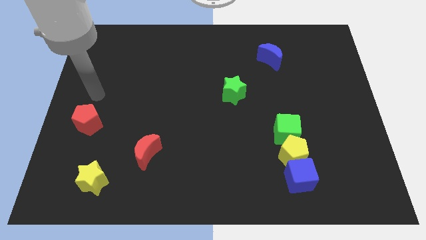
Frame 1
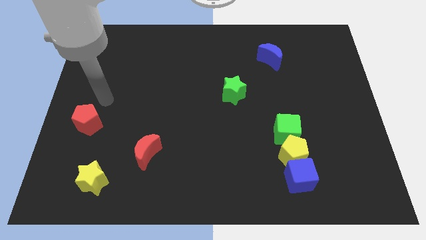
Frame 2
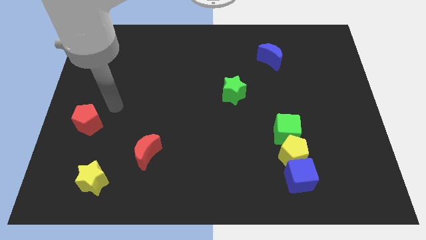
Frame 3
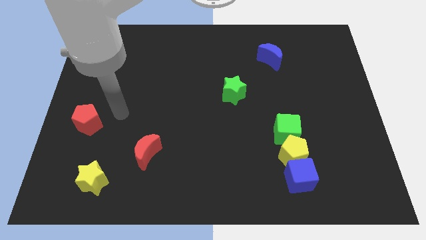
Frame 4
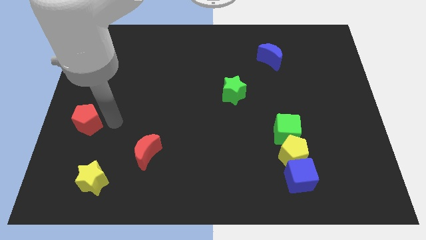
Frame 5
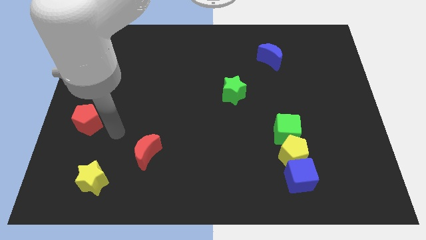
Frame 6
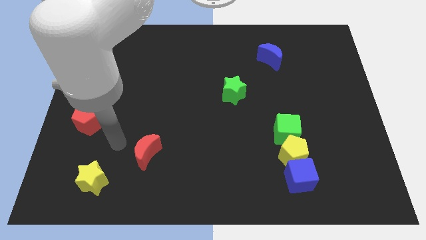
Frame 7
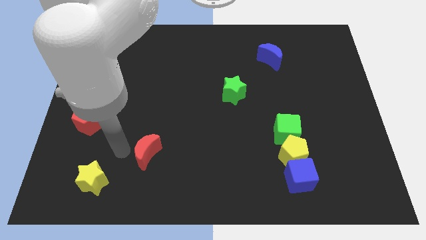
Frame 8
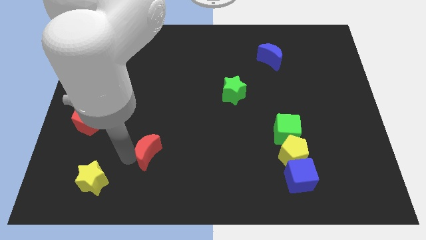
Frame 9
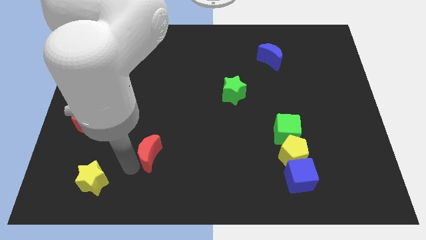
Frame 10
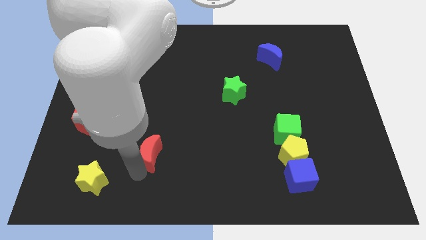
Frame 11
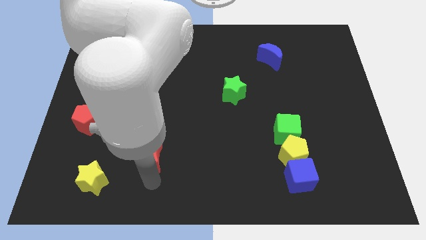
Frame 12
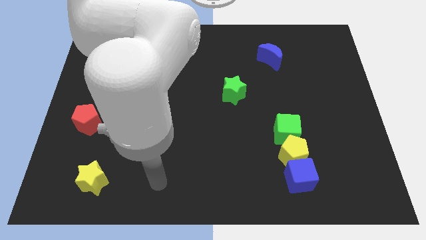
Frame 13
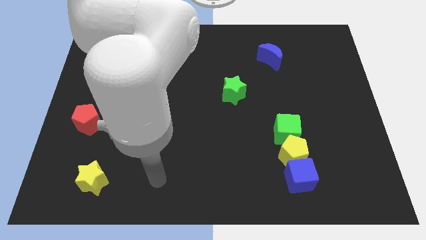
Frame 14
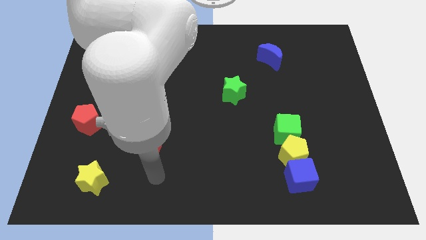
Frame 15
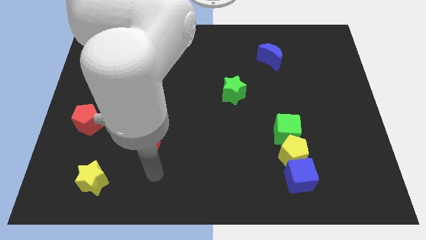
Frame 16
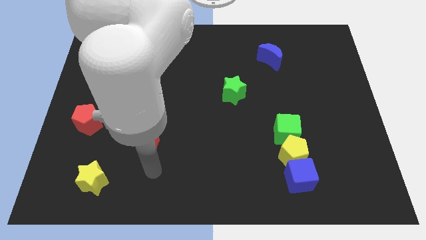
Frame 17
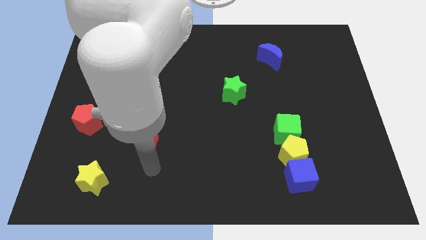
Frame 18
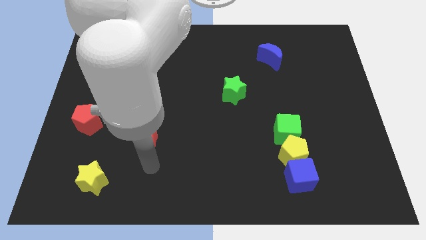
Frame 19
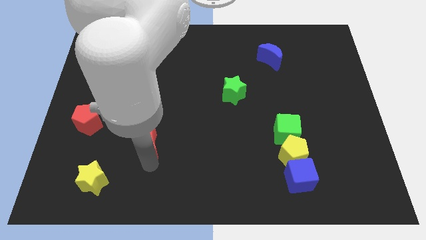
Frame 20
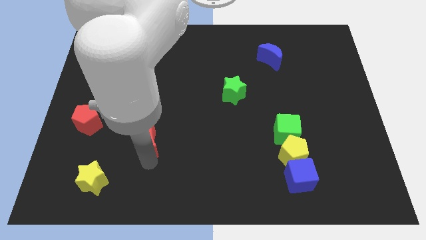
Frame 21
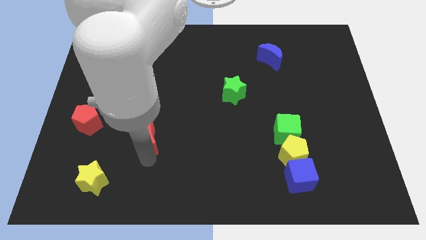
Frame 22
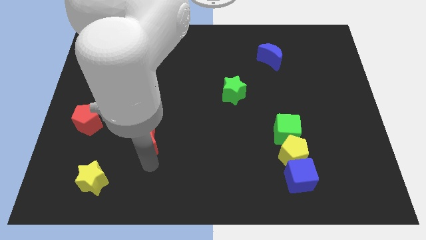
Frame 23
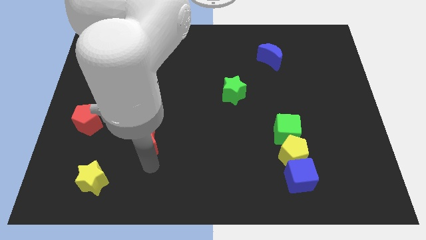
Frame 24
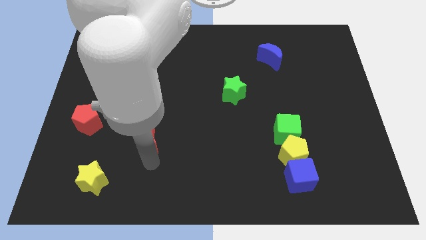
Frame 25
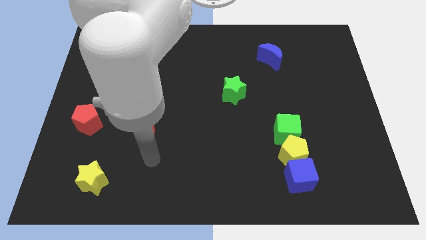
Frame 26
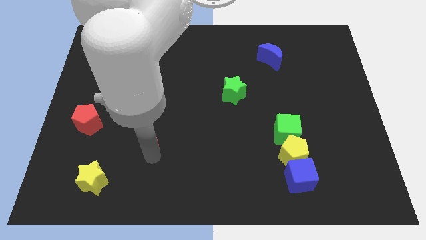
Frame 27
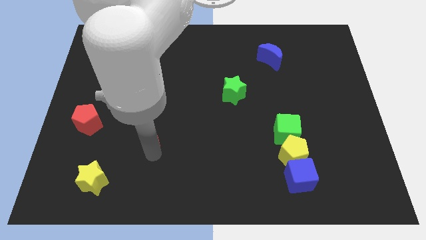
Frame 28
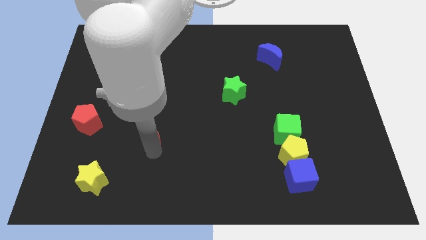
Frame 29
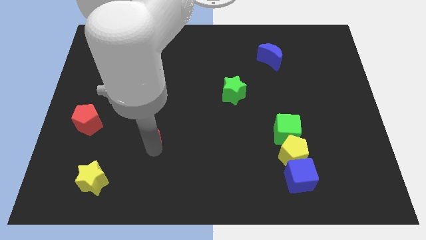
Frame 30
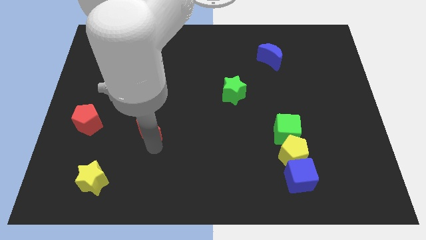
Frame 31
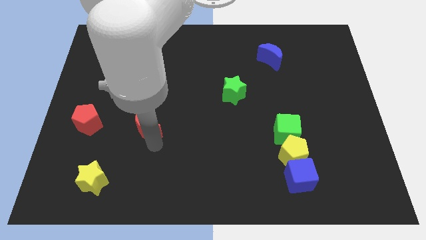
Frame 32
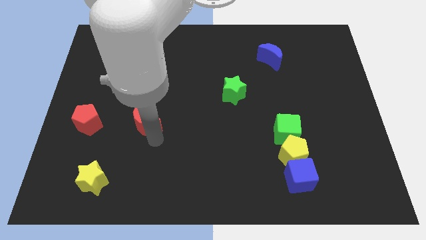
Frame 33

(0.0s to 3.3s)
move the red moon upwards slightly

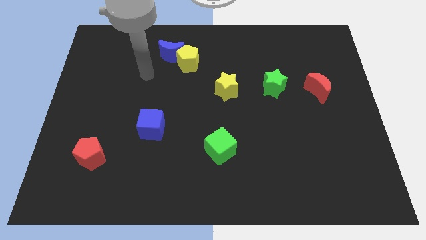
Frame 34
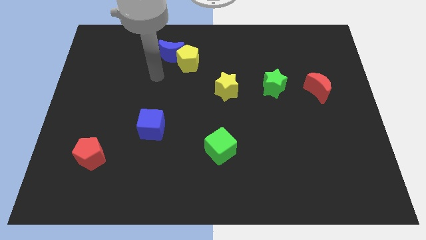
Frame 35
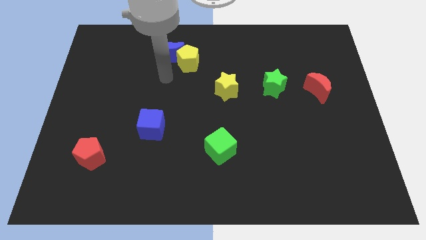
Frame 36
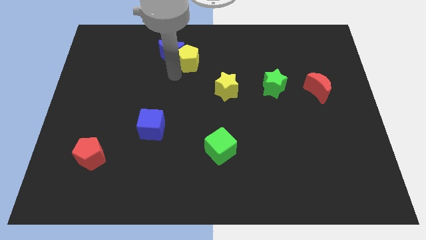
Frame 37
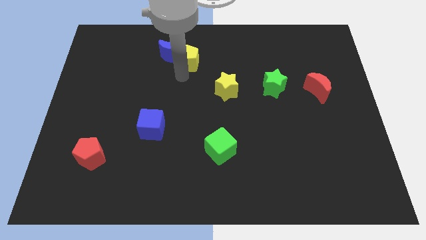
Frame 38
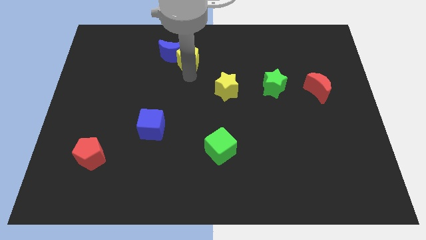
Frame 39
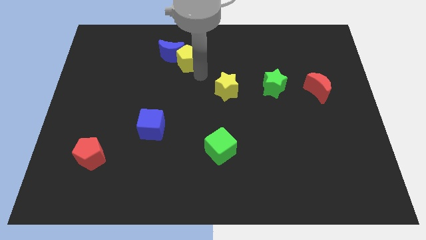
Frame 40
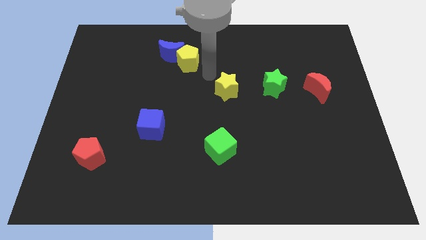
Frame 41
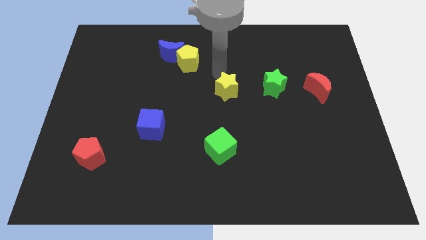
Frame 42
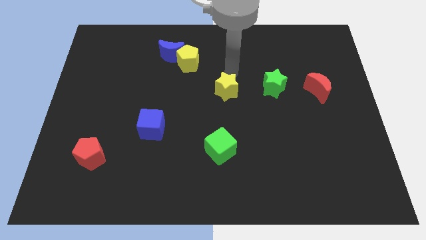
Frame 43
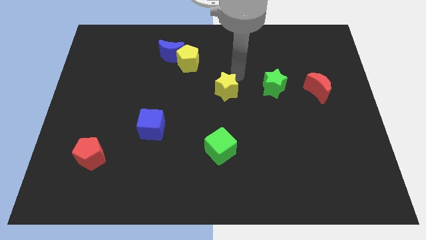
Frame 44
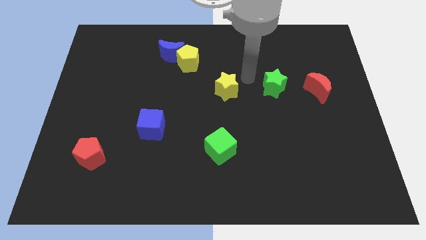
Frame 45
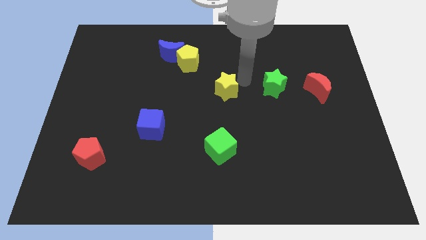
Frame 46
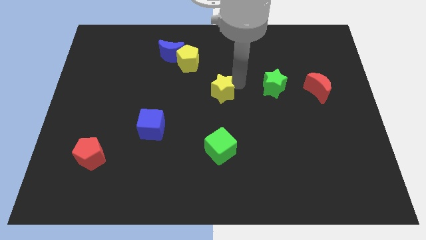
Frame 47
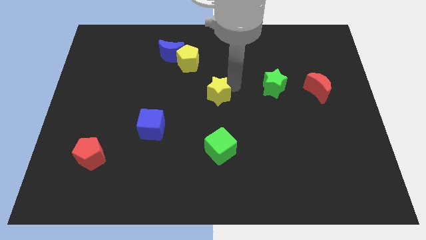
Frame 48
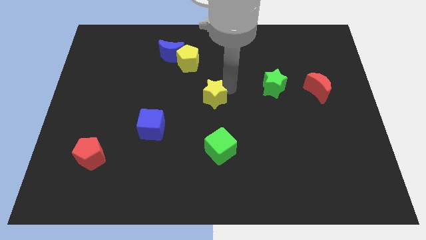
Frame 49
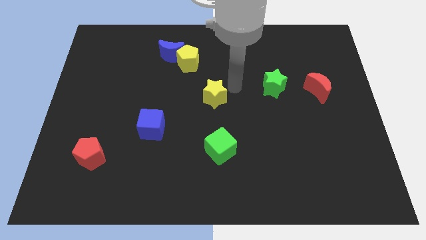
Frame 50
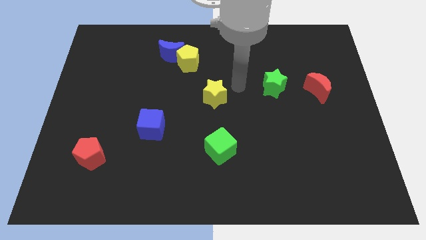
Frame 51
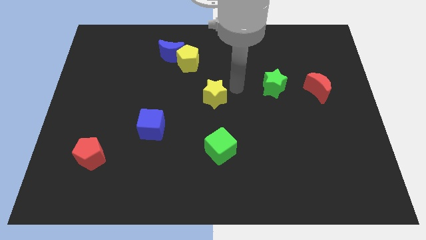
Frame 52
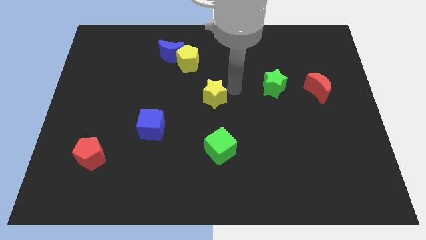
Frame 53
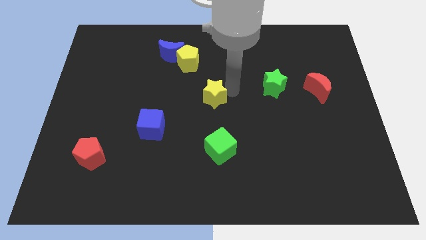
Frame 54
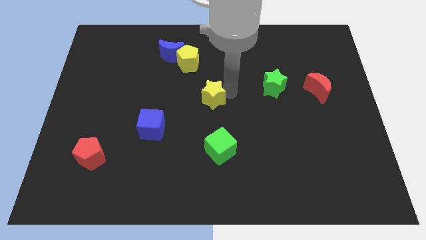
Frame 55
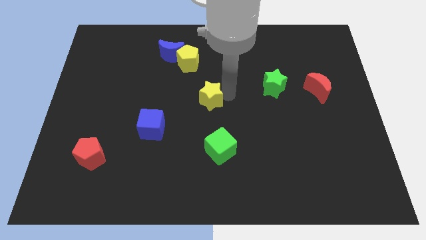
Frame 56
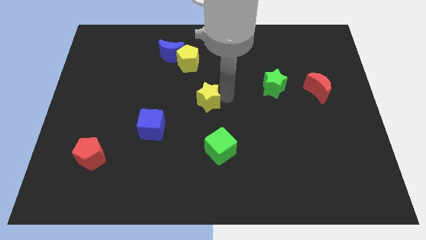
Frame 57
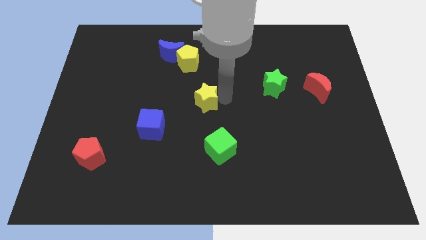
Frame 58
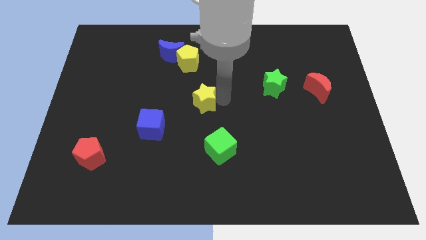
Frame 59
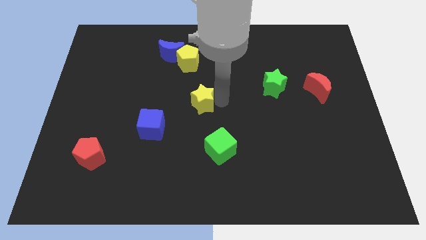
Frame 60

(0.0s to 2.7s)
push the yellow star down and to the left diagonally a little bit

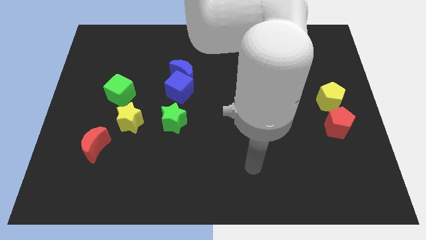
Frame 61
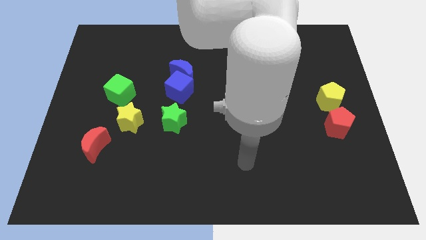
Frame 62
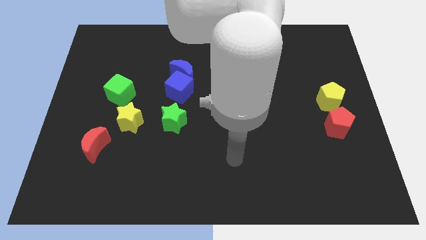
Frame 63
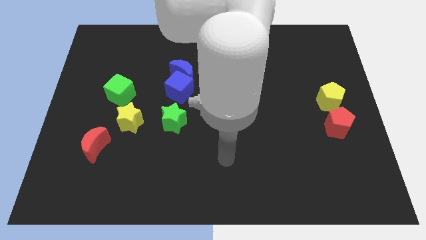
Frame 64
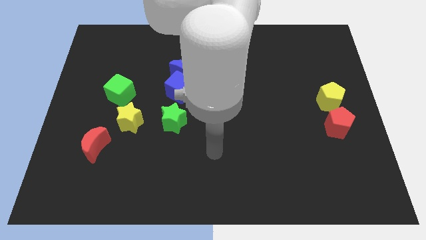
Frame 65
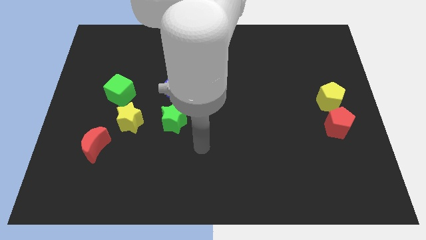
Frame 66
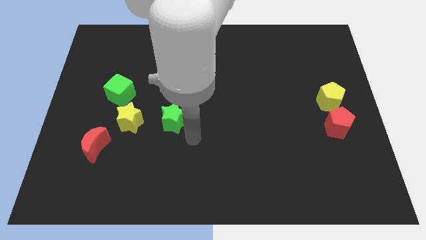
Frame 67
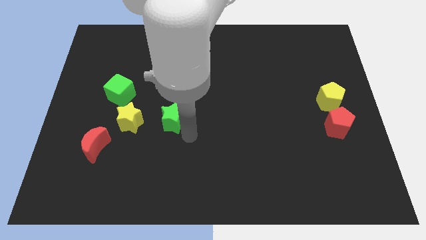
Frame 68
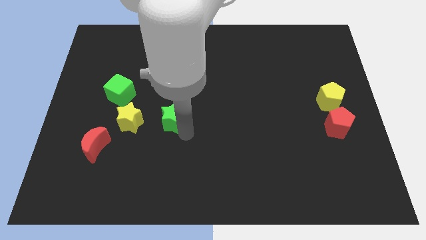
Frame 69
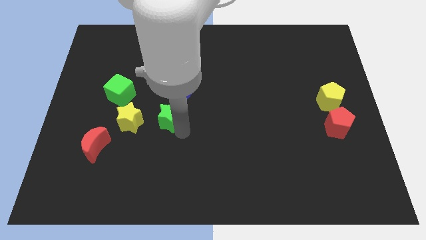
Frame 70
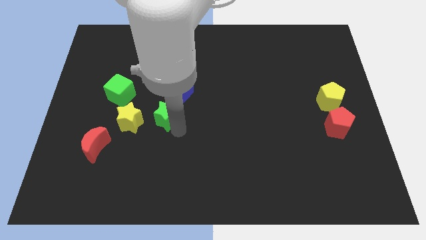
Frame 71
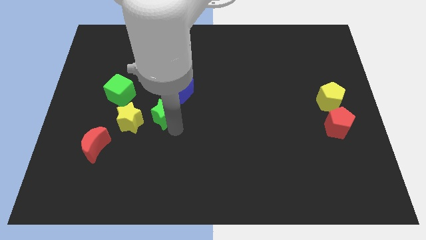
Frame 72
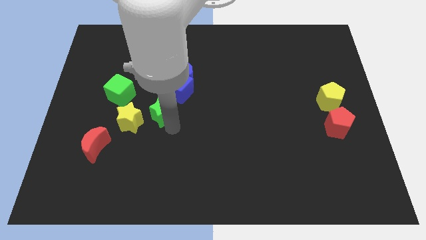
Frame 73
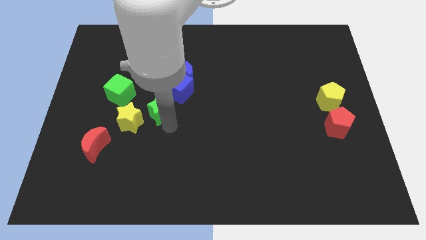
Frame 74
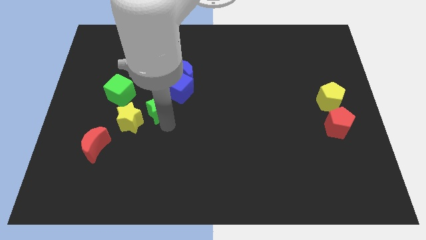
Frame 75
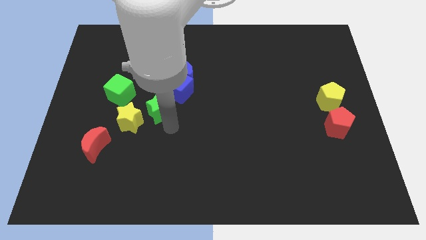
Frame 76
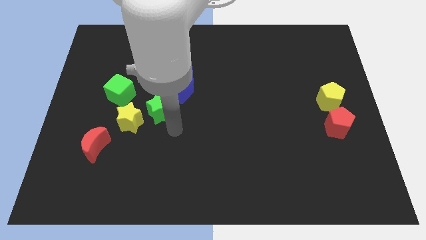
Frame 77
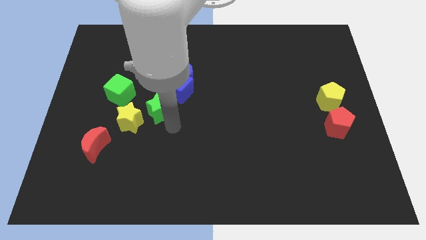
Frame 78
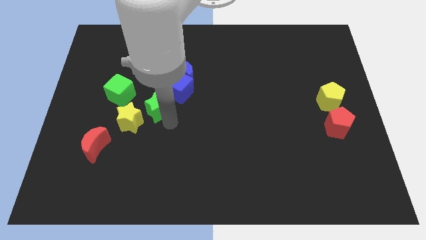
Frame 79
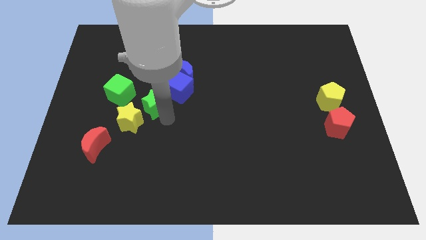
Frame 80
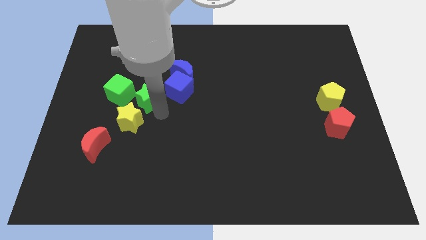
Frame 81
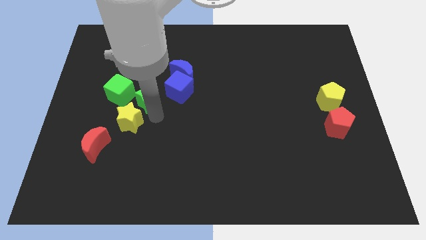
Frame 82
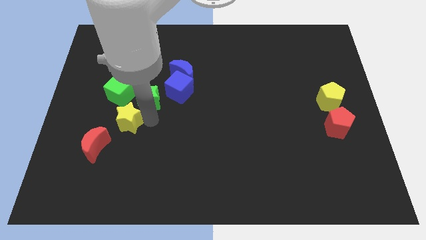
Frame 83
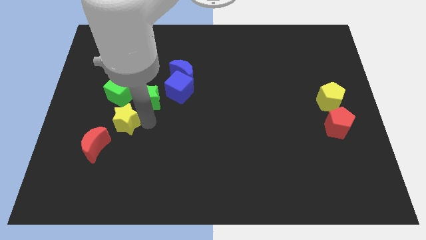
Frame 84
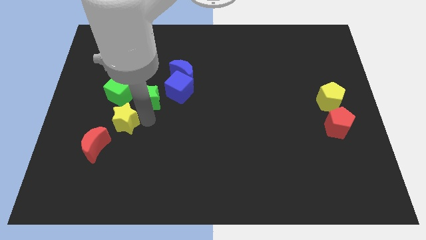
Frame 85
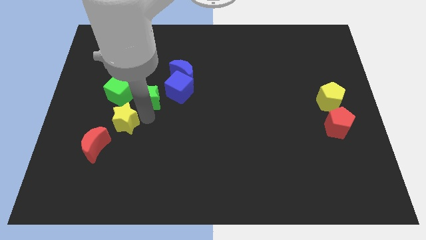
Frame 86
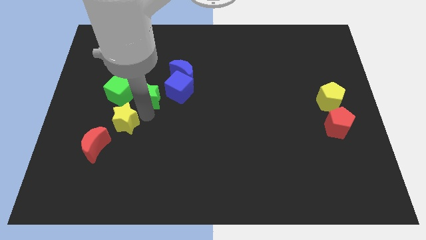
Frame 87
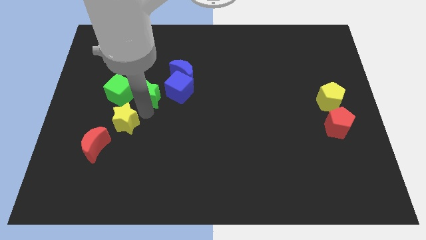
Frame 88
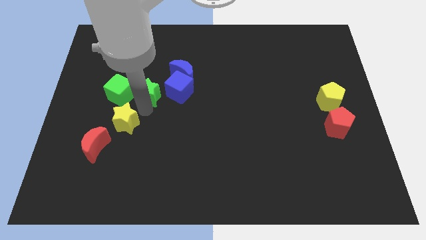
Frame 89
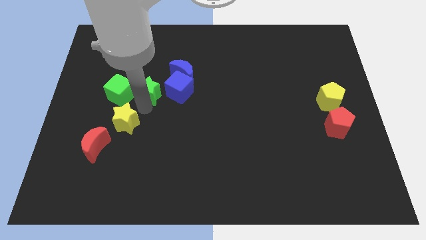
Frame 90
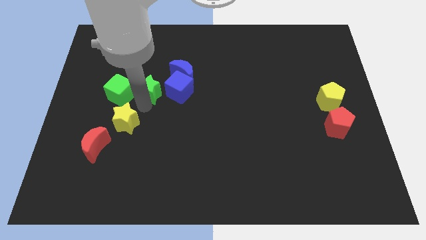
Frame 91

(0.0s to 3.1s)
move the green star upwards a bit
